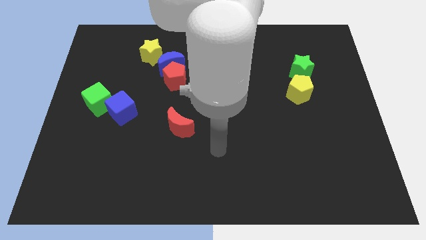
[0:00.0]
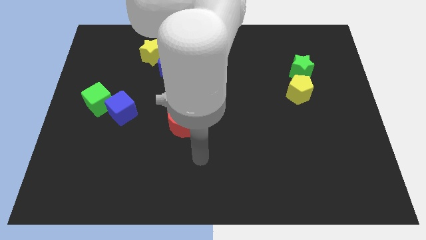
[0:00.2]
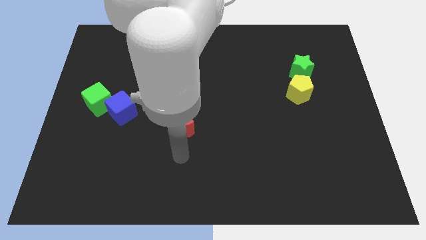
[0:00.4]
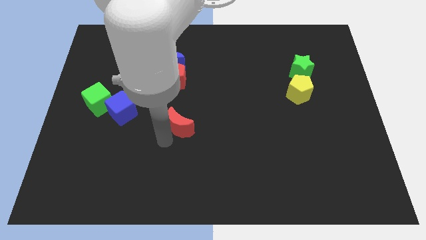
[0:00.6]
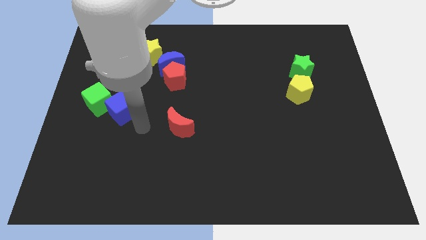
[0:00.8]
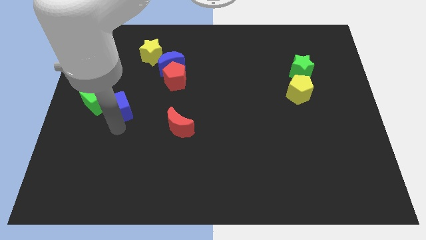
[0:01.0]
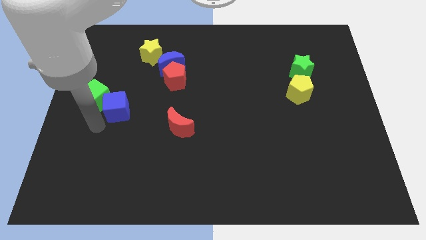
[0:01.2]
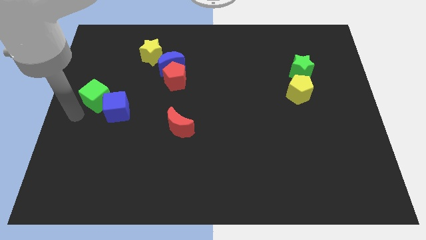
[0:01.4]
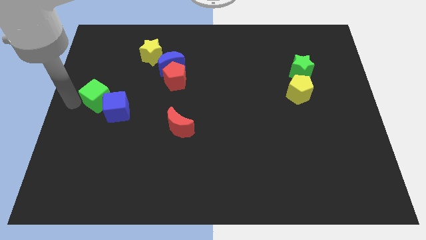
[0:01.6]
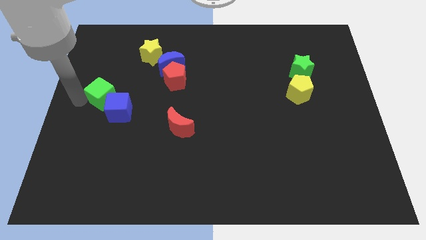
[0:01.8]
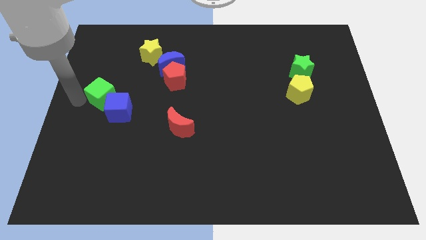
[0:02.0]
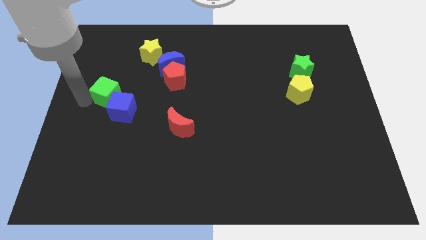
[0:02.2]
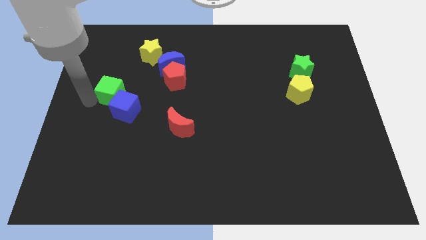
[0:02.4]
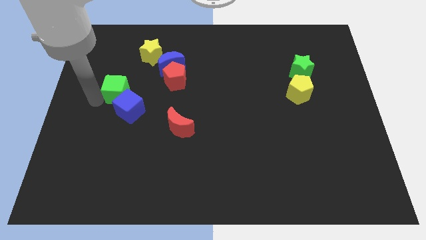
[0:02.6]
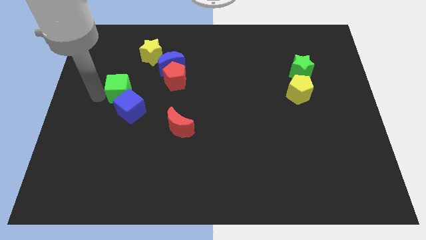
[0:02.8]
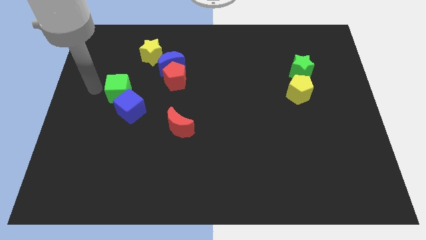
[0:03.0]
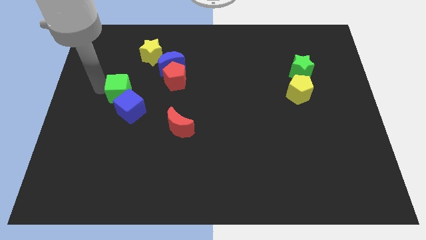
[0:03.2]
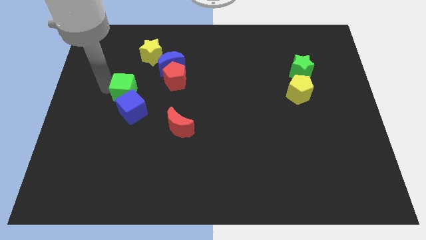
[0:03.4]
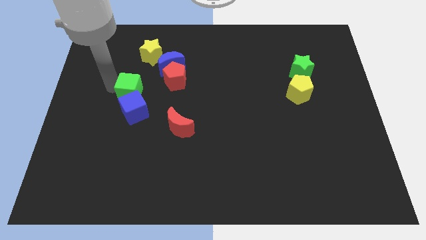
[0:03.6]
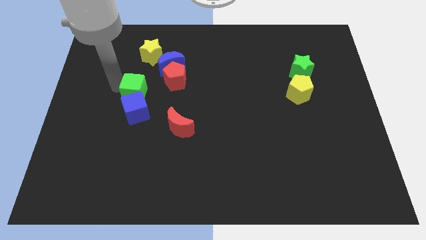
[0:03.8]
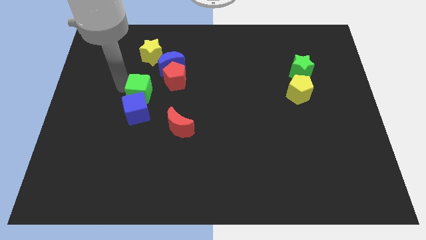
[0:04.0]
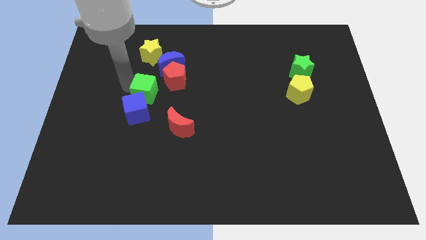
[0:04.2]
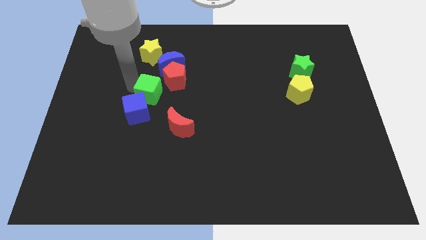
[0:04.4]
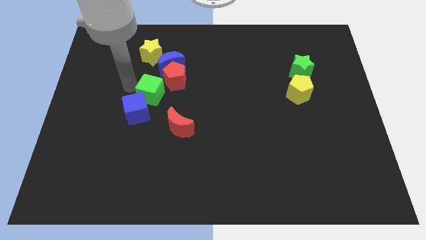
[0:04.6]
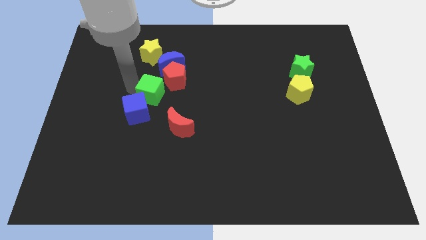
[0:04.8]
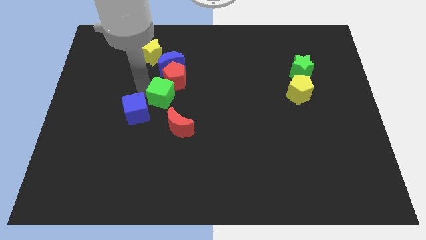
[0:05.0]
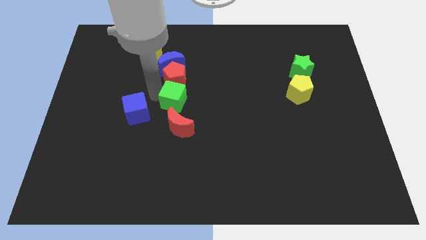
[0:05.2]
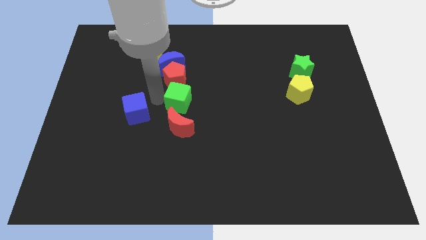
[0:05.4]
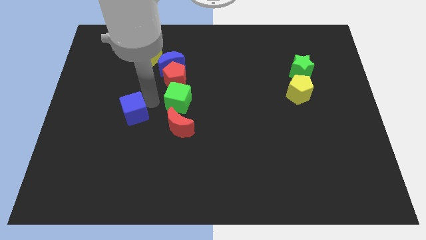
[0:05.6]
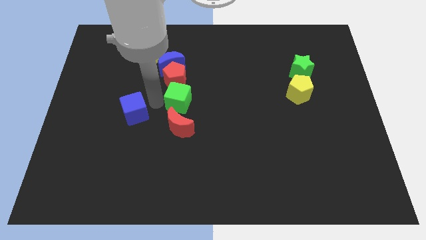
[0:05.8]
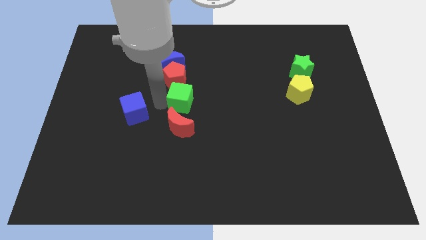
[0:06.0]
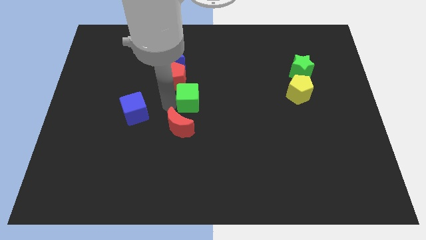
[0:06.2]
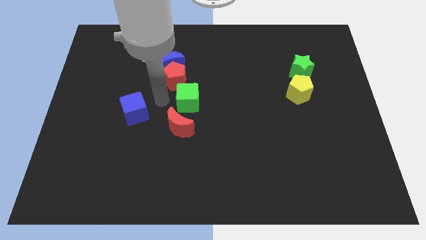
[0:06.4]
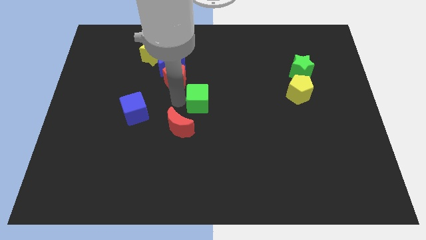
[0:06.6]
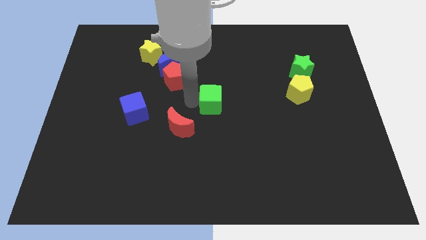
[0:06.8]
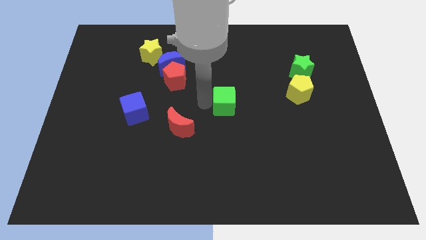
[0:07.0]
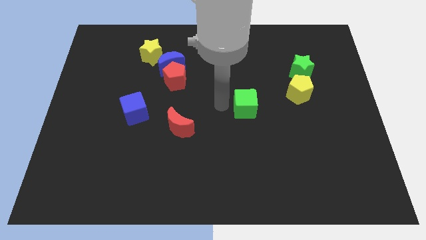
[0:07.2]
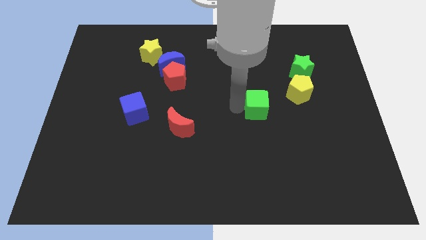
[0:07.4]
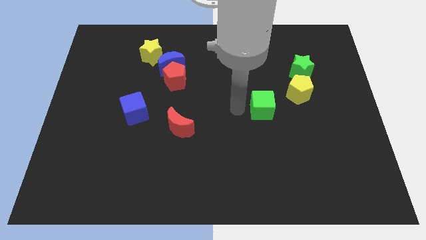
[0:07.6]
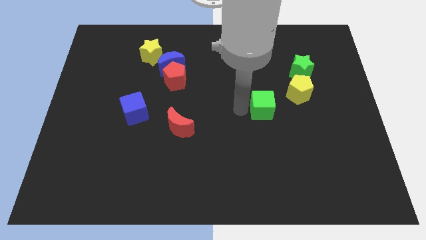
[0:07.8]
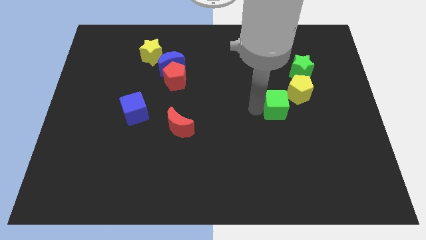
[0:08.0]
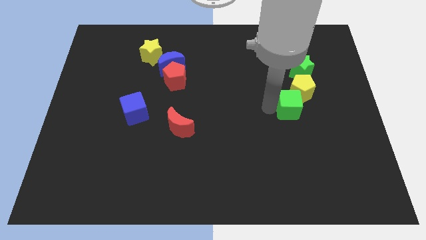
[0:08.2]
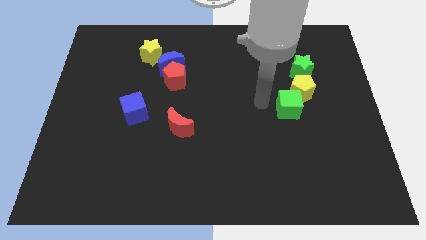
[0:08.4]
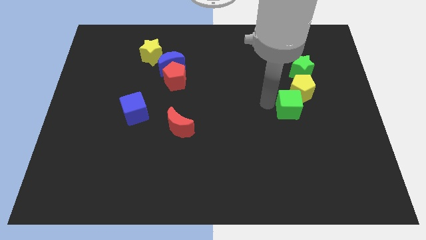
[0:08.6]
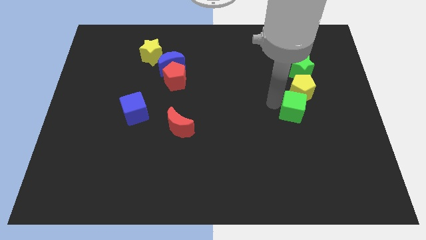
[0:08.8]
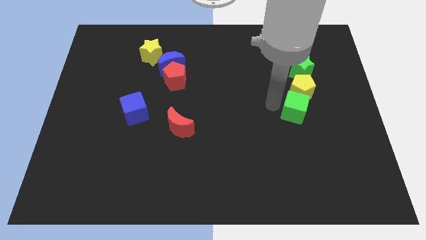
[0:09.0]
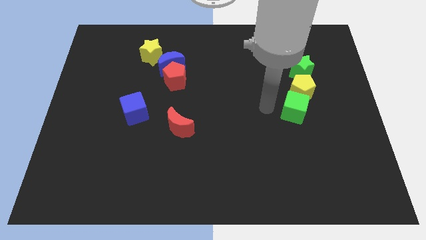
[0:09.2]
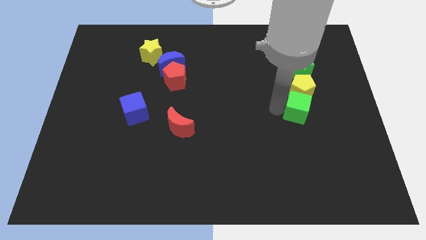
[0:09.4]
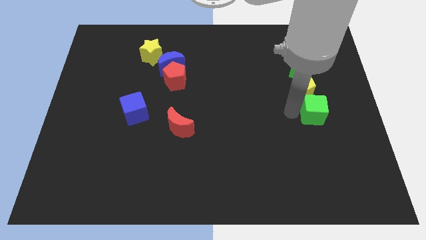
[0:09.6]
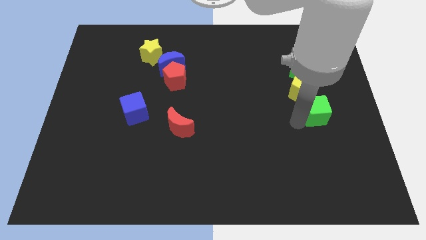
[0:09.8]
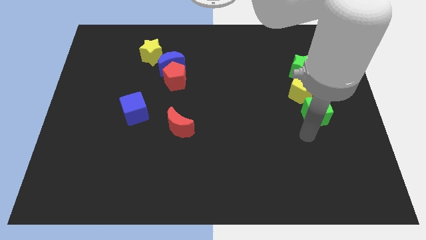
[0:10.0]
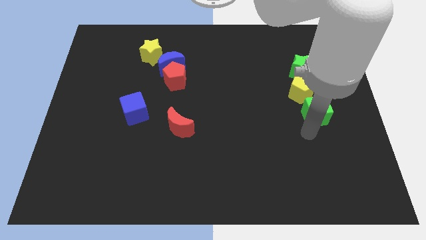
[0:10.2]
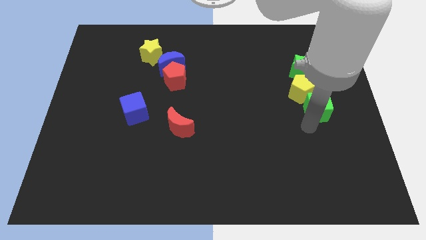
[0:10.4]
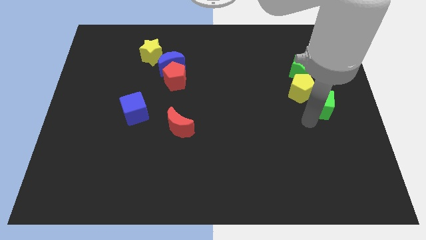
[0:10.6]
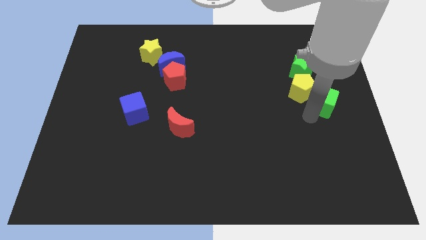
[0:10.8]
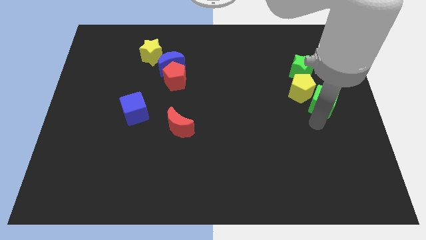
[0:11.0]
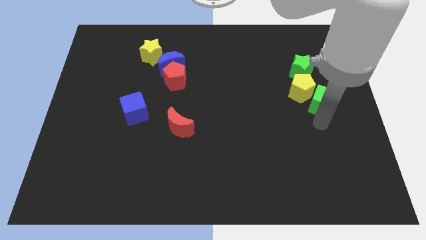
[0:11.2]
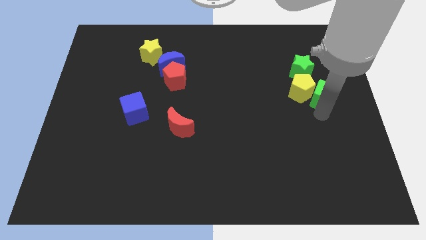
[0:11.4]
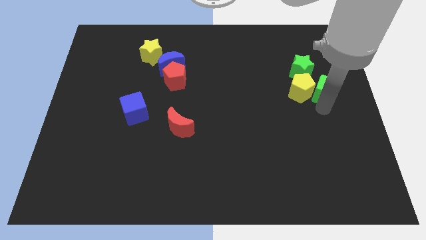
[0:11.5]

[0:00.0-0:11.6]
put the green cube diagonally up and to the right of the yellow pentagon

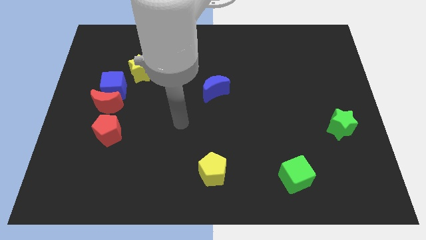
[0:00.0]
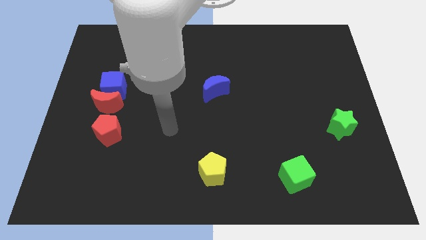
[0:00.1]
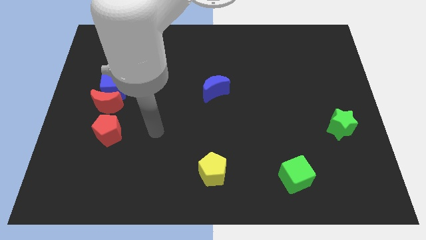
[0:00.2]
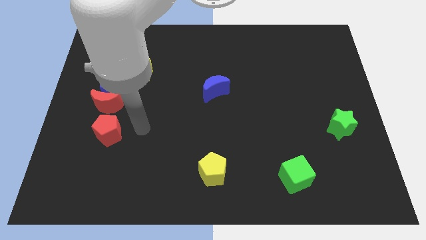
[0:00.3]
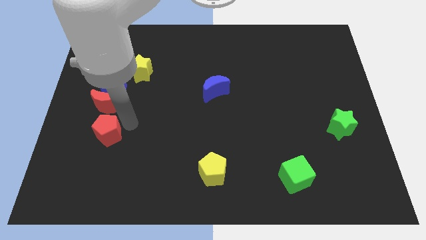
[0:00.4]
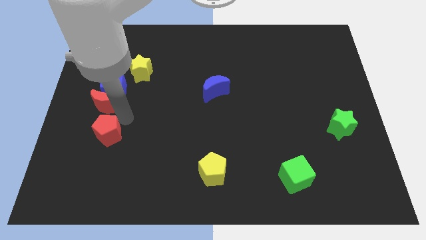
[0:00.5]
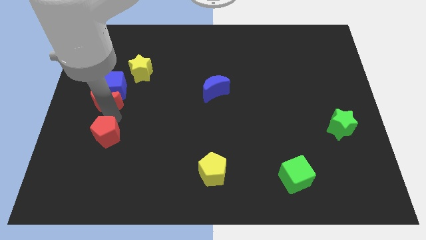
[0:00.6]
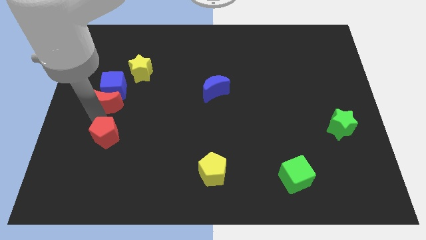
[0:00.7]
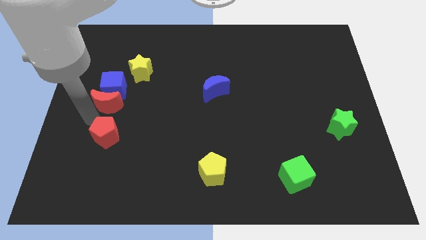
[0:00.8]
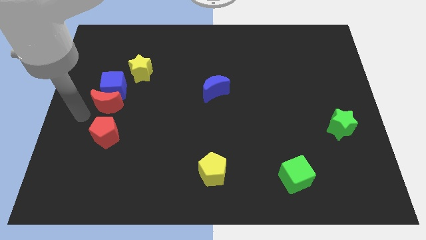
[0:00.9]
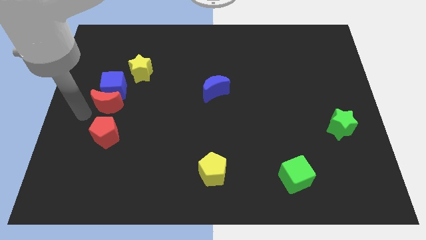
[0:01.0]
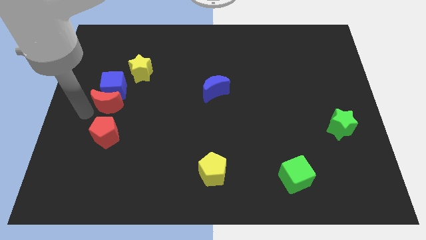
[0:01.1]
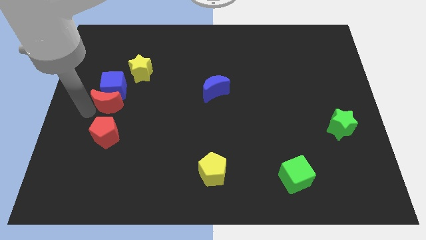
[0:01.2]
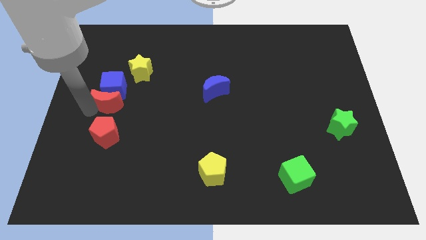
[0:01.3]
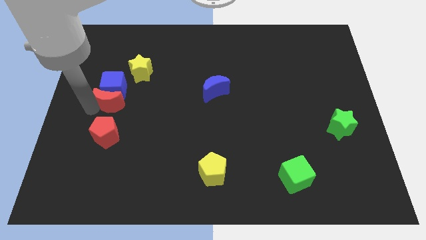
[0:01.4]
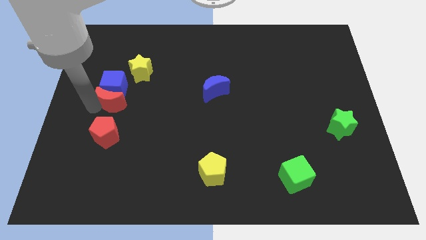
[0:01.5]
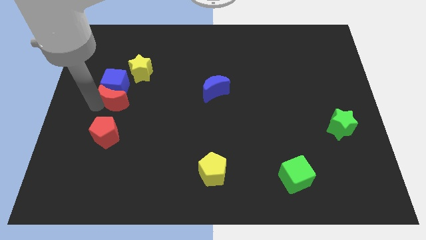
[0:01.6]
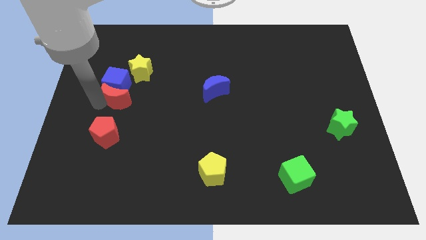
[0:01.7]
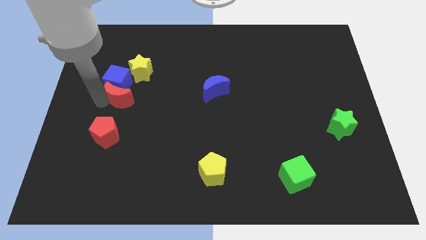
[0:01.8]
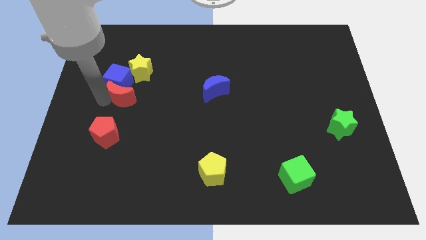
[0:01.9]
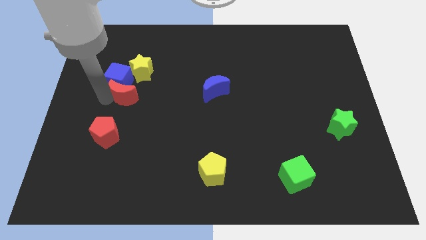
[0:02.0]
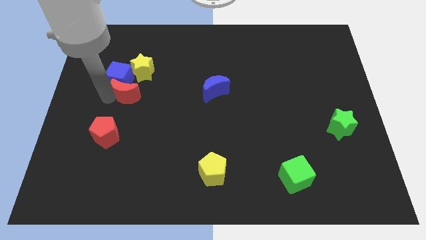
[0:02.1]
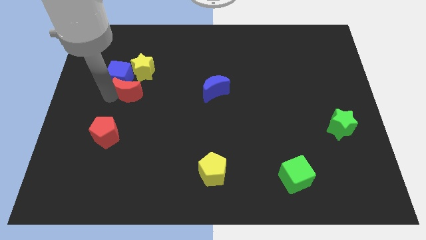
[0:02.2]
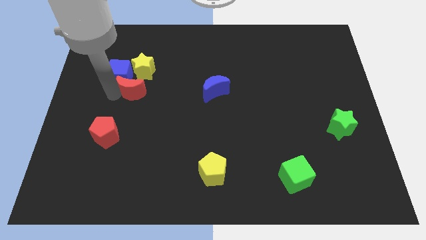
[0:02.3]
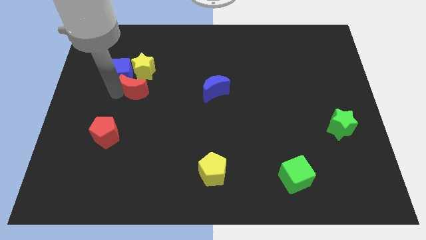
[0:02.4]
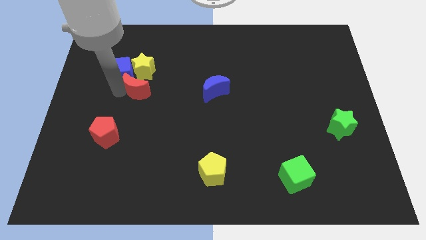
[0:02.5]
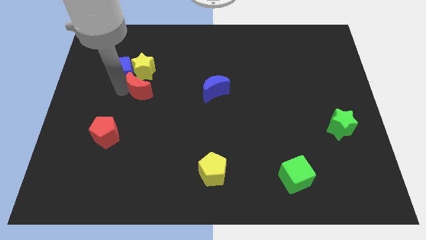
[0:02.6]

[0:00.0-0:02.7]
move the red moon to the bottom right side of the yellow star
